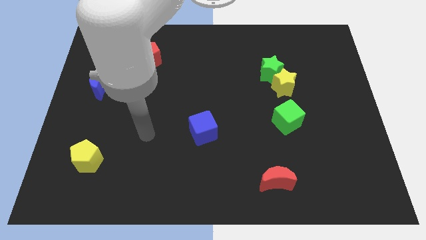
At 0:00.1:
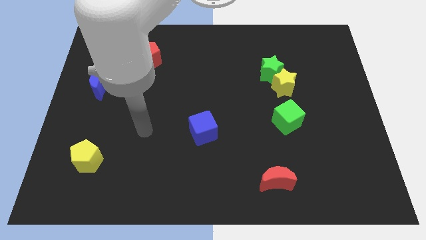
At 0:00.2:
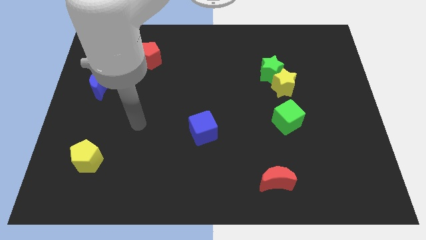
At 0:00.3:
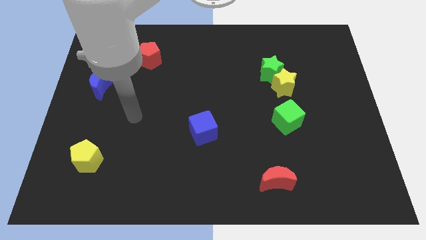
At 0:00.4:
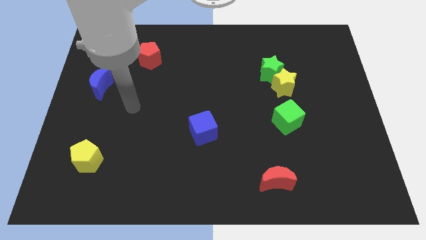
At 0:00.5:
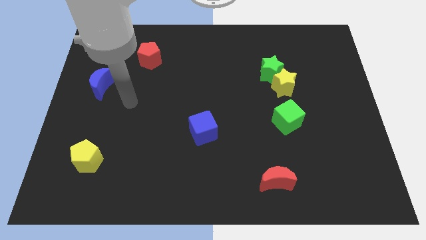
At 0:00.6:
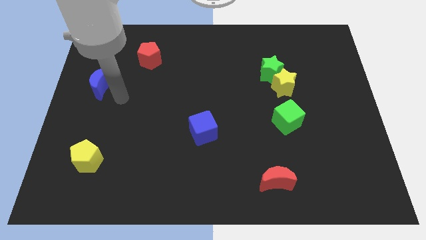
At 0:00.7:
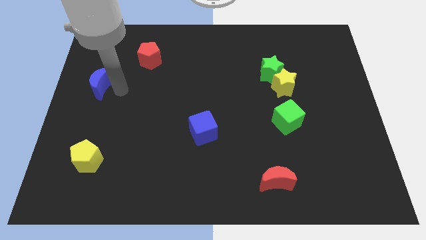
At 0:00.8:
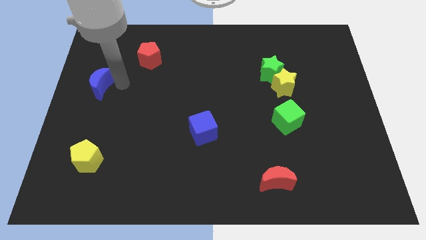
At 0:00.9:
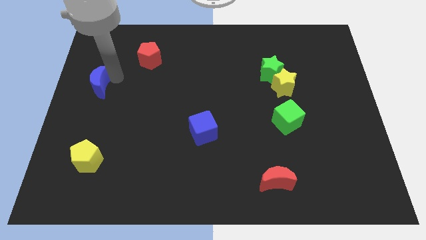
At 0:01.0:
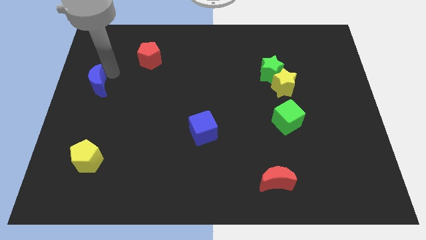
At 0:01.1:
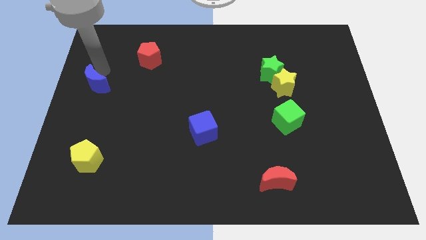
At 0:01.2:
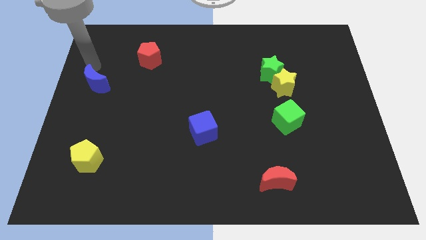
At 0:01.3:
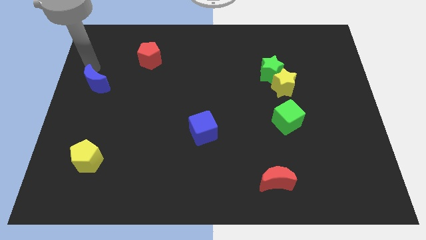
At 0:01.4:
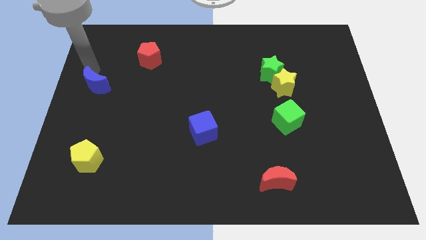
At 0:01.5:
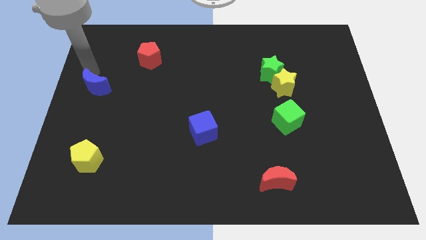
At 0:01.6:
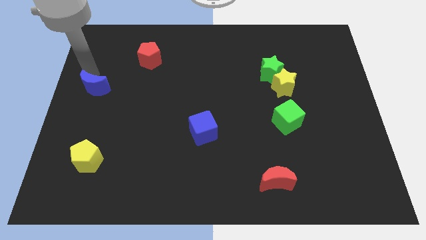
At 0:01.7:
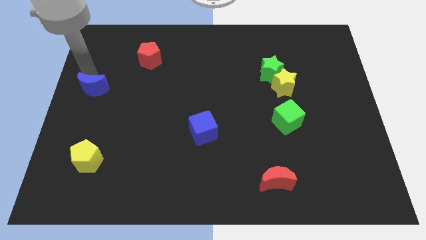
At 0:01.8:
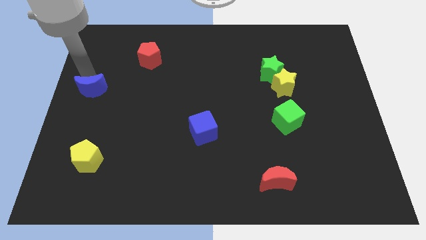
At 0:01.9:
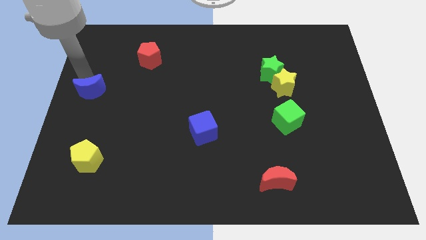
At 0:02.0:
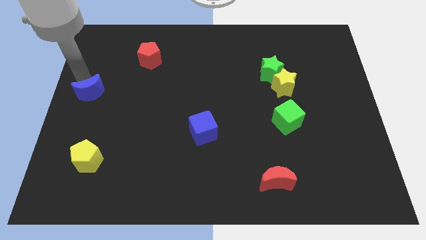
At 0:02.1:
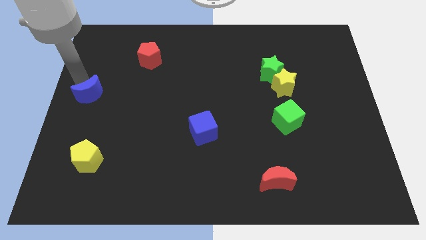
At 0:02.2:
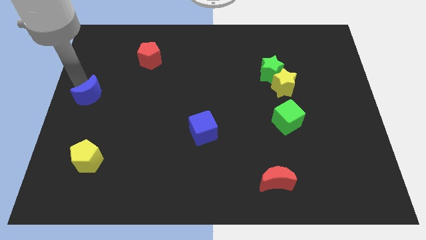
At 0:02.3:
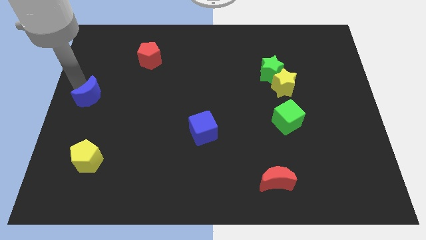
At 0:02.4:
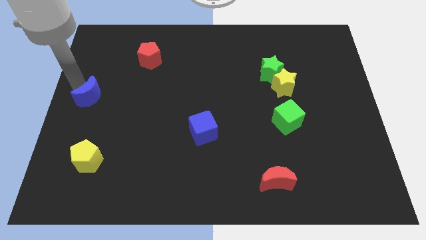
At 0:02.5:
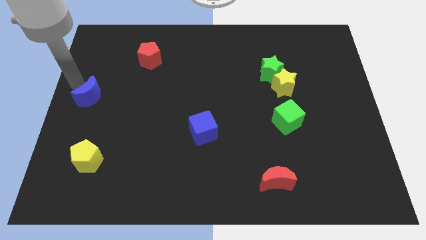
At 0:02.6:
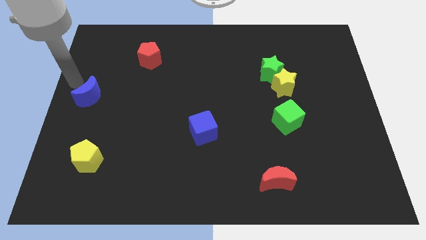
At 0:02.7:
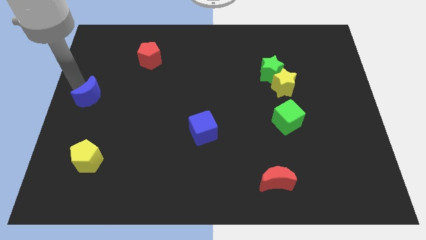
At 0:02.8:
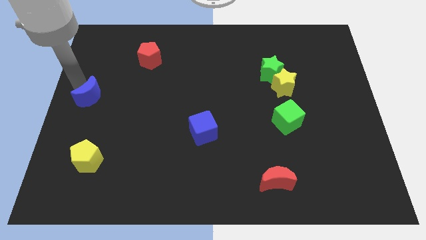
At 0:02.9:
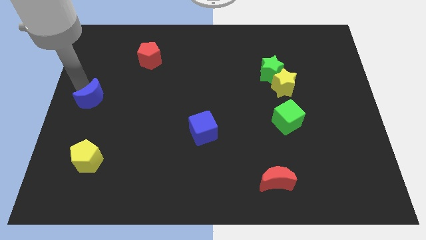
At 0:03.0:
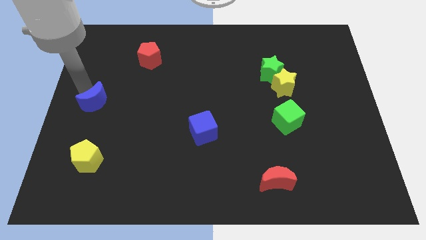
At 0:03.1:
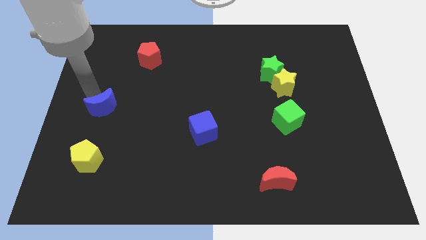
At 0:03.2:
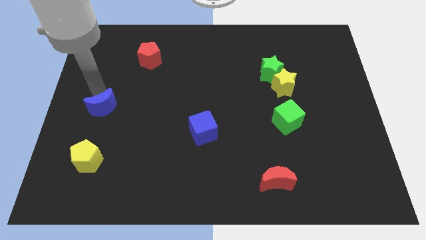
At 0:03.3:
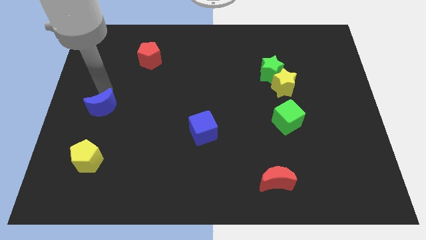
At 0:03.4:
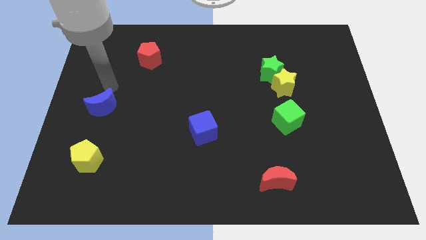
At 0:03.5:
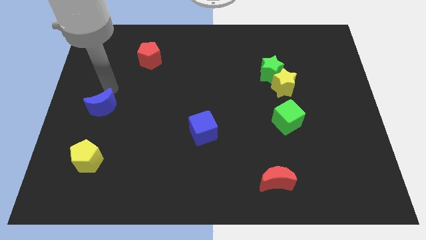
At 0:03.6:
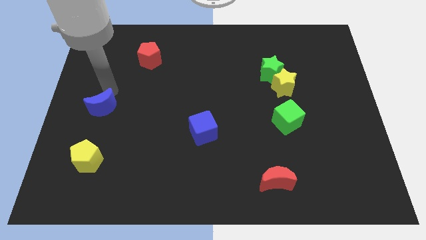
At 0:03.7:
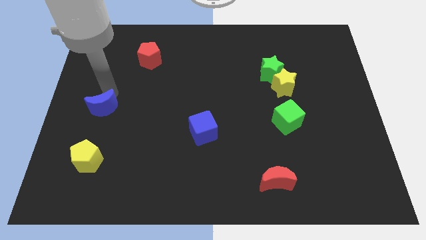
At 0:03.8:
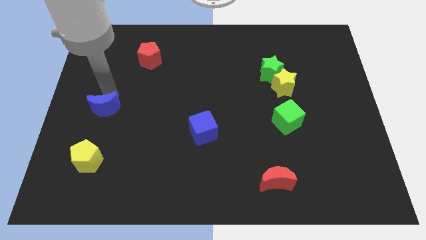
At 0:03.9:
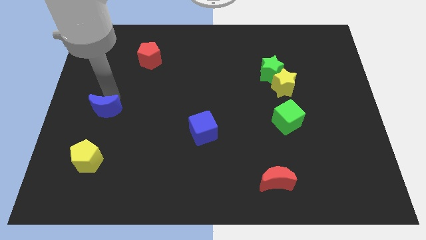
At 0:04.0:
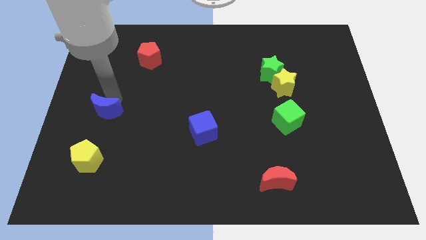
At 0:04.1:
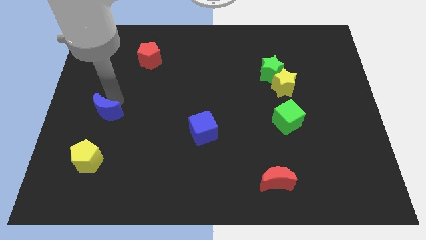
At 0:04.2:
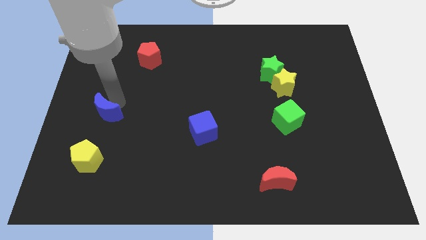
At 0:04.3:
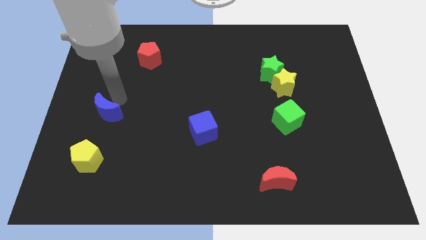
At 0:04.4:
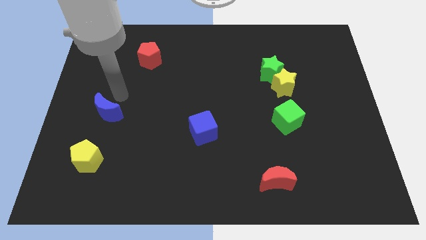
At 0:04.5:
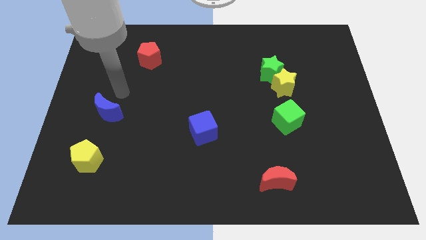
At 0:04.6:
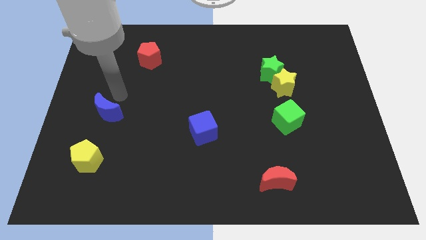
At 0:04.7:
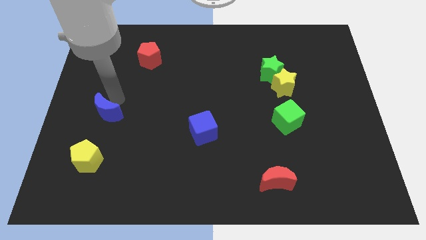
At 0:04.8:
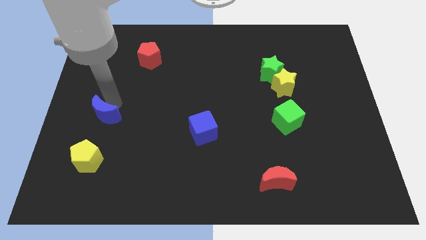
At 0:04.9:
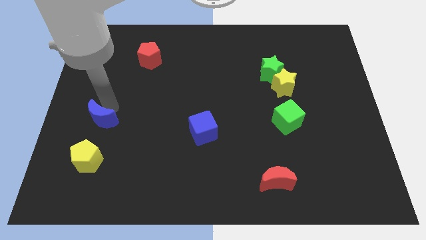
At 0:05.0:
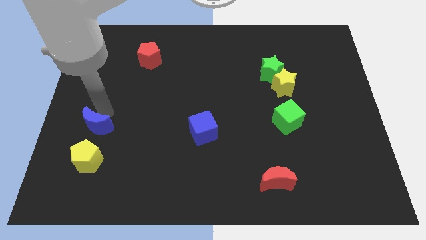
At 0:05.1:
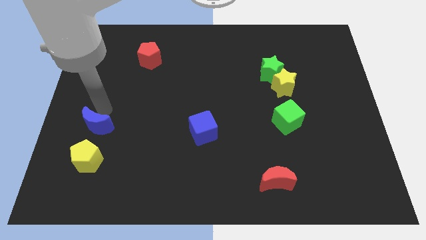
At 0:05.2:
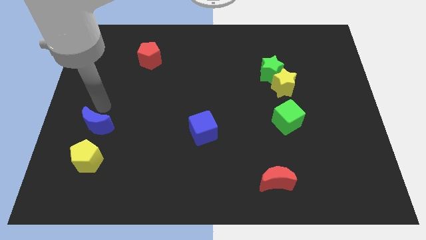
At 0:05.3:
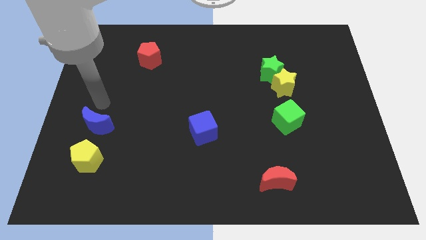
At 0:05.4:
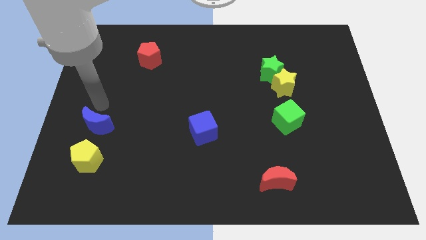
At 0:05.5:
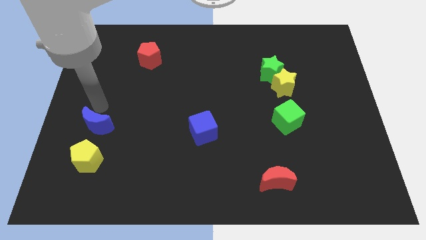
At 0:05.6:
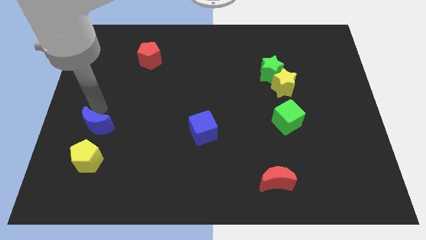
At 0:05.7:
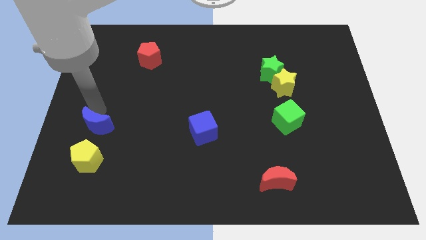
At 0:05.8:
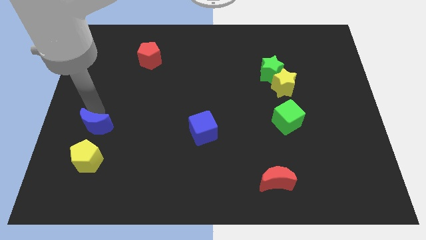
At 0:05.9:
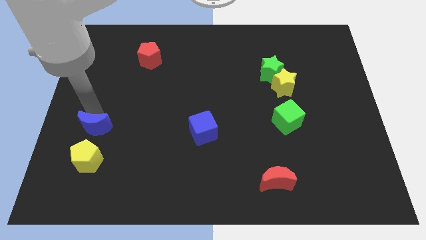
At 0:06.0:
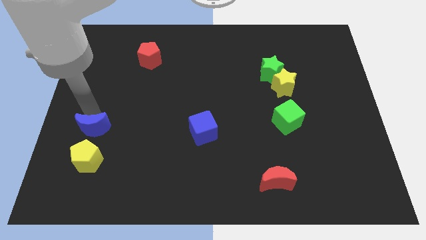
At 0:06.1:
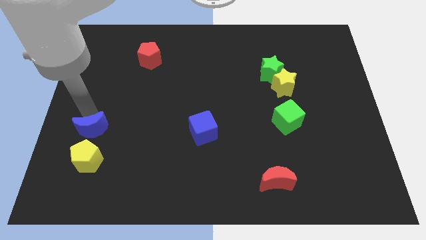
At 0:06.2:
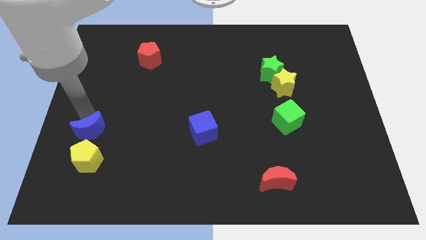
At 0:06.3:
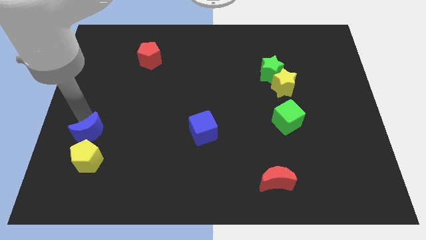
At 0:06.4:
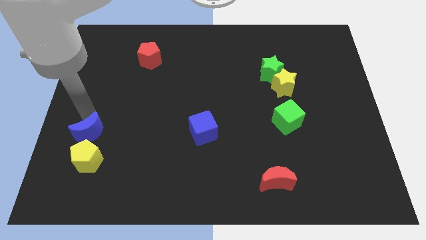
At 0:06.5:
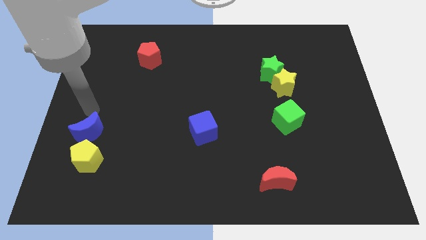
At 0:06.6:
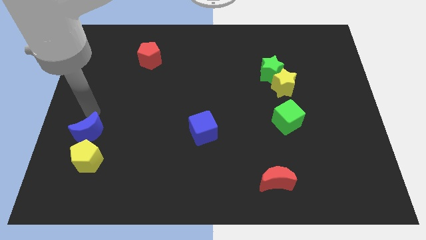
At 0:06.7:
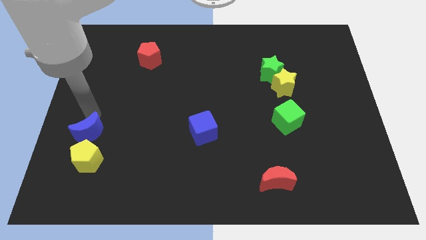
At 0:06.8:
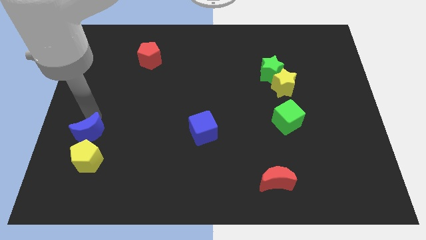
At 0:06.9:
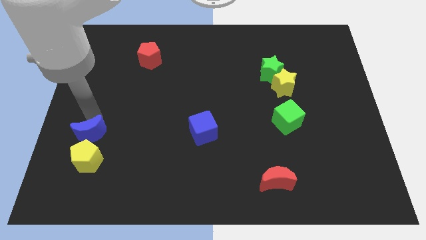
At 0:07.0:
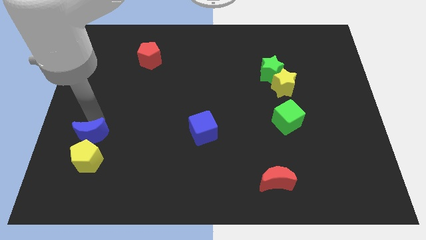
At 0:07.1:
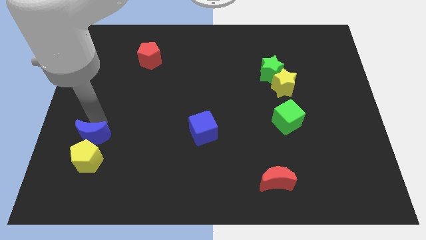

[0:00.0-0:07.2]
move the blue moon close to the yellow pentagon
